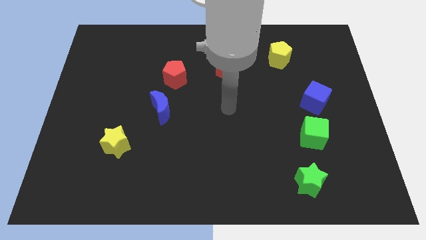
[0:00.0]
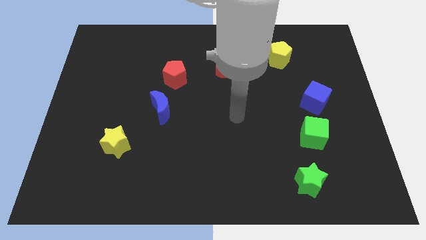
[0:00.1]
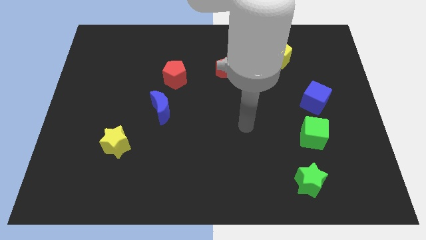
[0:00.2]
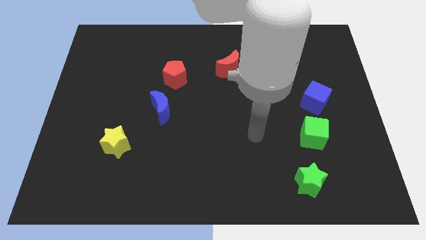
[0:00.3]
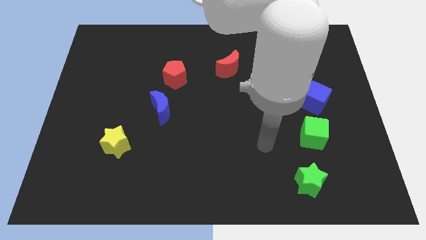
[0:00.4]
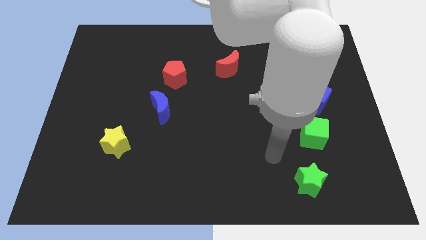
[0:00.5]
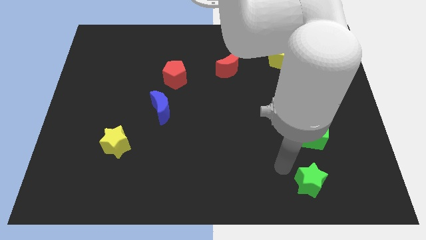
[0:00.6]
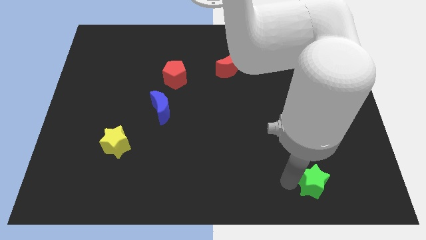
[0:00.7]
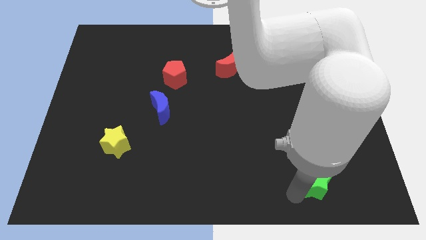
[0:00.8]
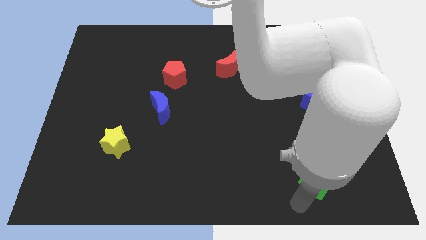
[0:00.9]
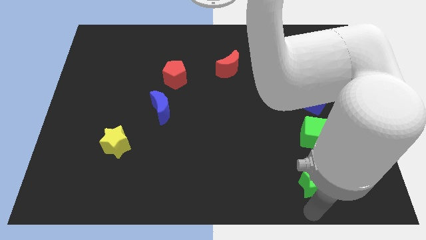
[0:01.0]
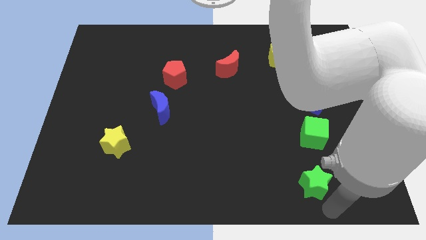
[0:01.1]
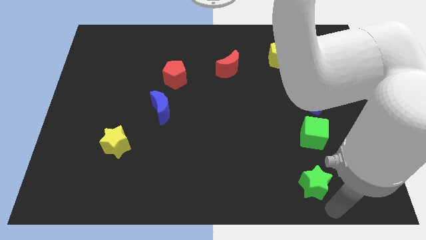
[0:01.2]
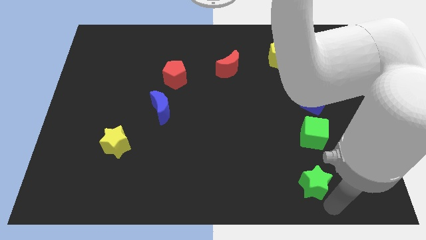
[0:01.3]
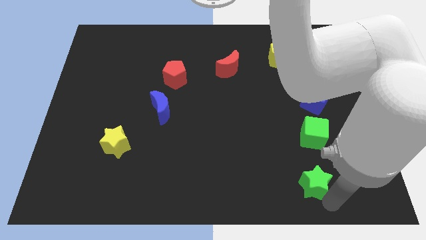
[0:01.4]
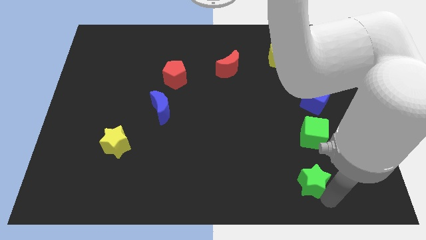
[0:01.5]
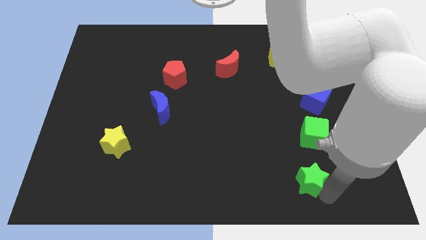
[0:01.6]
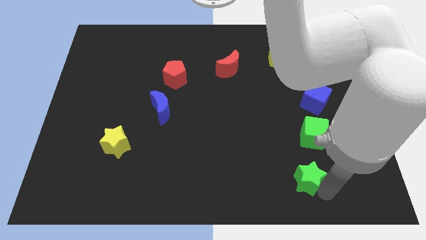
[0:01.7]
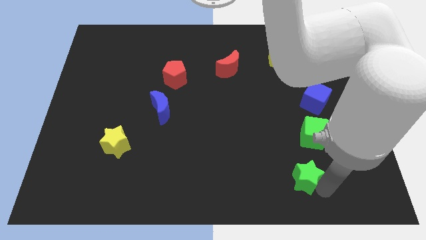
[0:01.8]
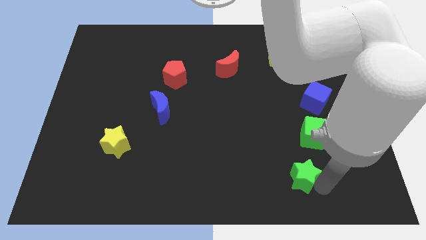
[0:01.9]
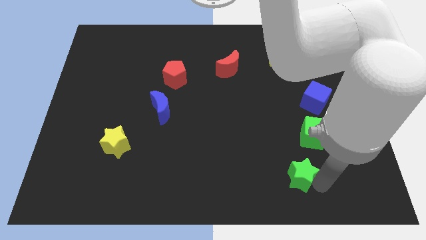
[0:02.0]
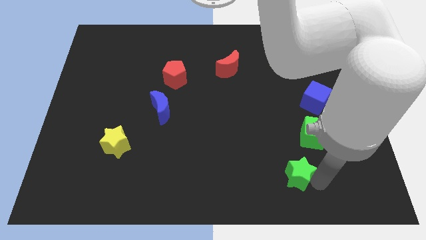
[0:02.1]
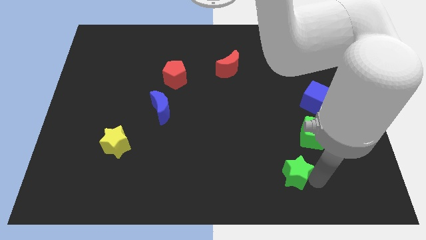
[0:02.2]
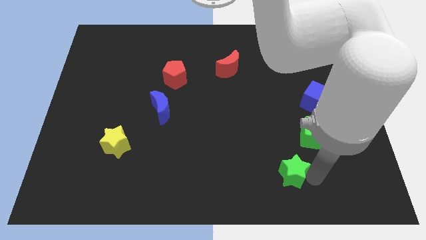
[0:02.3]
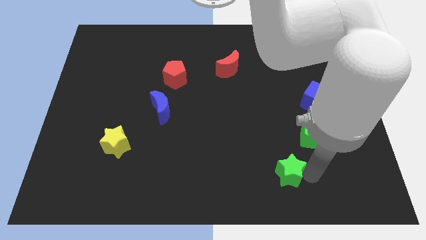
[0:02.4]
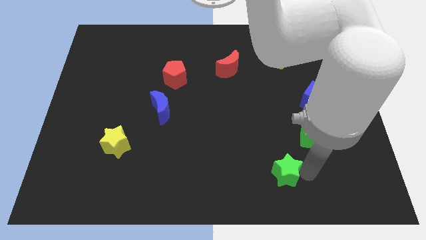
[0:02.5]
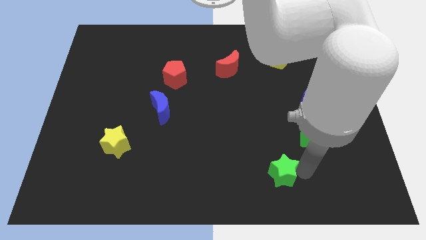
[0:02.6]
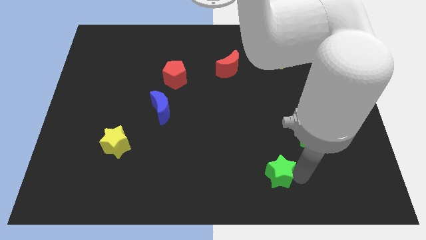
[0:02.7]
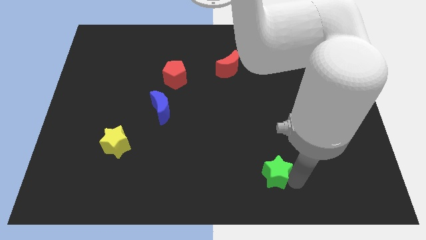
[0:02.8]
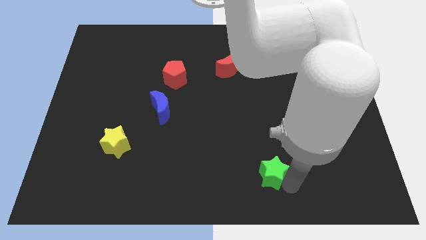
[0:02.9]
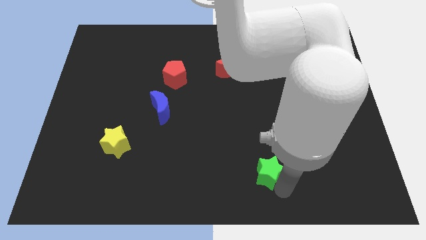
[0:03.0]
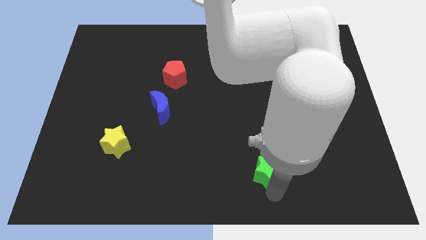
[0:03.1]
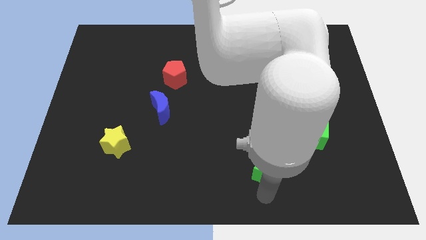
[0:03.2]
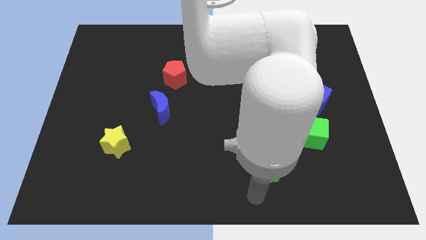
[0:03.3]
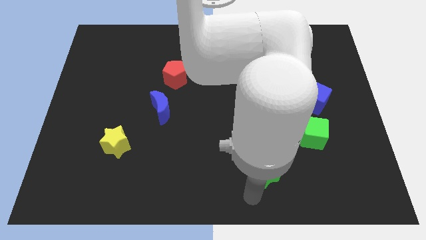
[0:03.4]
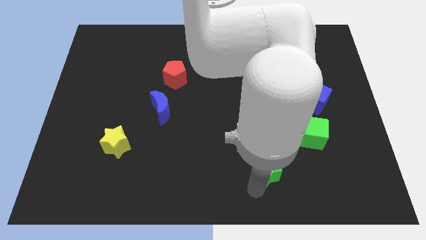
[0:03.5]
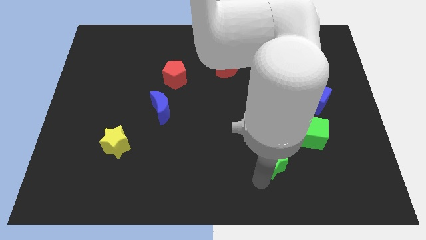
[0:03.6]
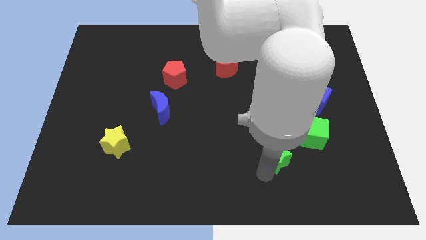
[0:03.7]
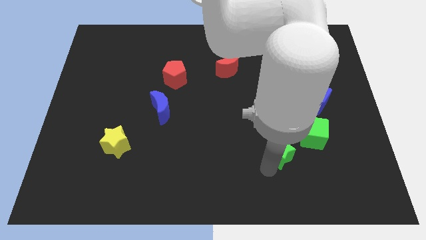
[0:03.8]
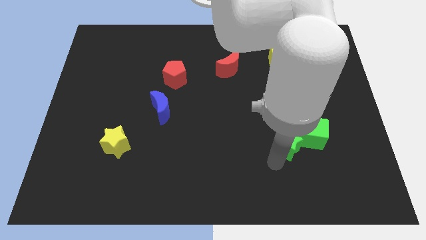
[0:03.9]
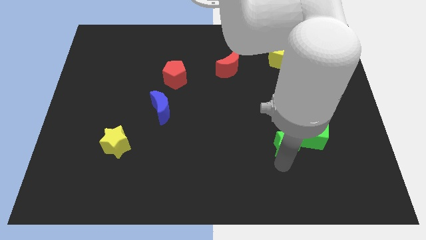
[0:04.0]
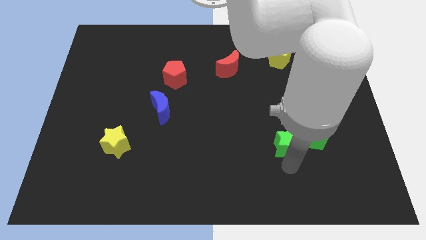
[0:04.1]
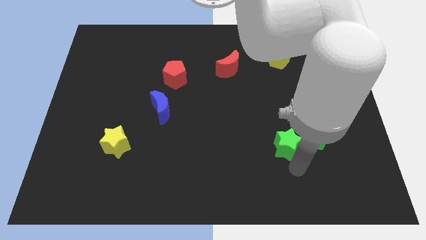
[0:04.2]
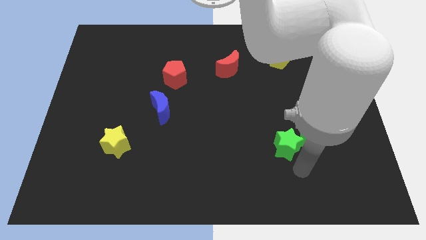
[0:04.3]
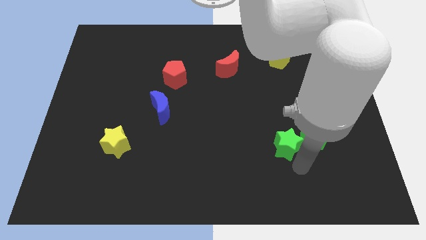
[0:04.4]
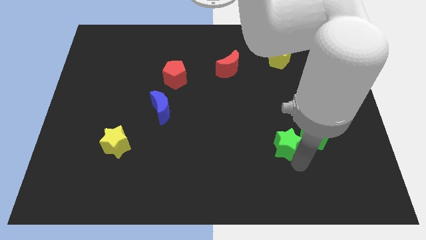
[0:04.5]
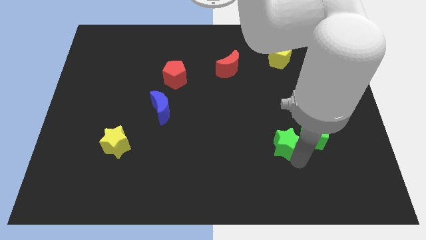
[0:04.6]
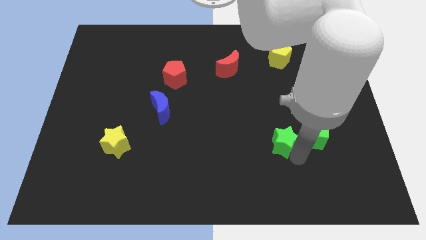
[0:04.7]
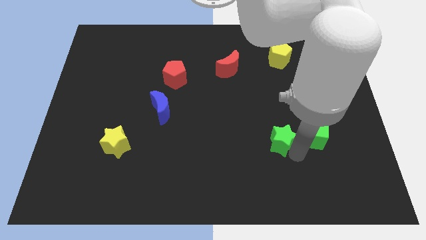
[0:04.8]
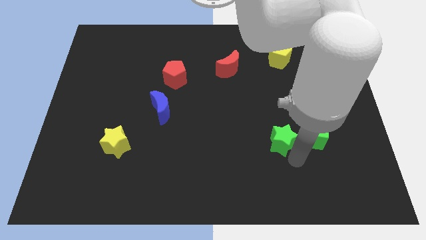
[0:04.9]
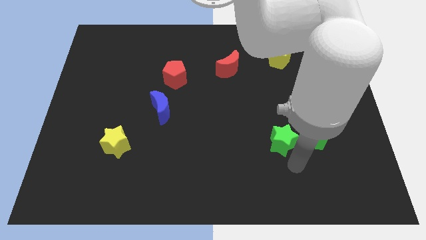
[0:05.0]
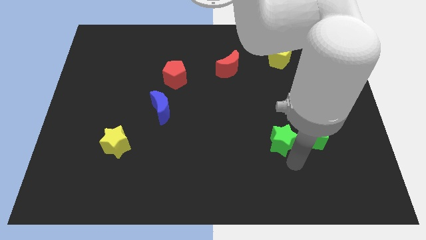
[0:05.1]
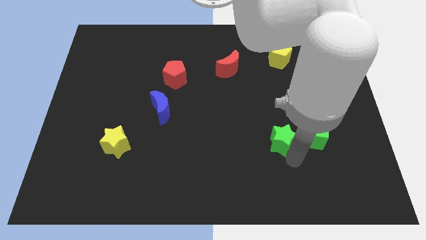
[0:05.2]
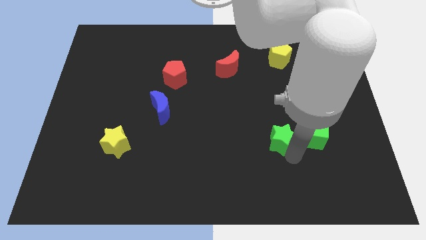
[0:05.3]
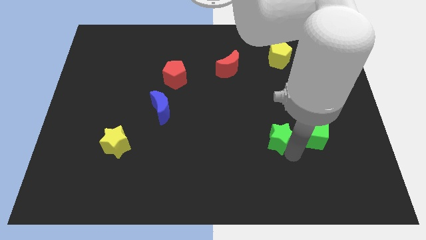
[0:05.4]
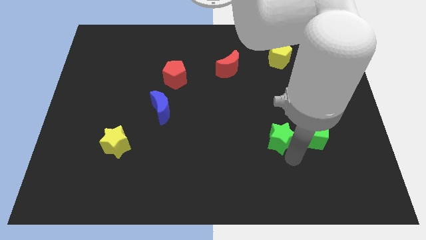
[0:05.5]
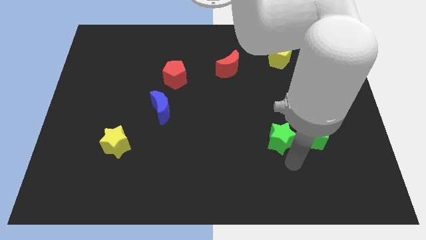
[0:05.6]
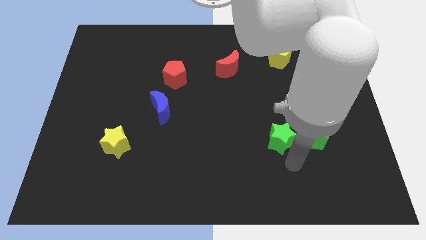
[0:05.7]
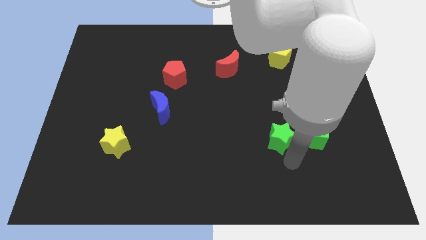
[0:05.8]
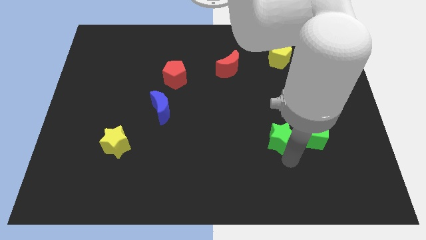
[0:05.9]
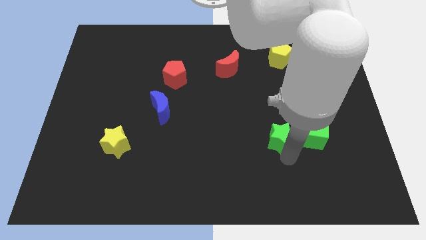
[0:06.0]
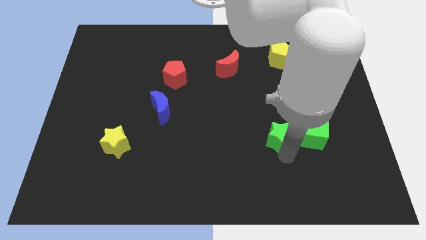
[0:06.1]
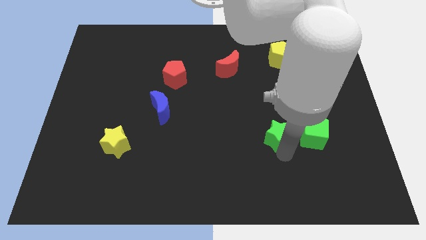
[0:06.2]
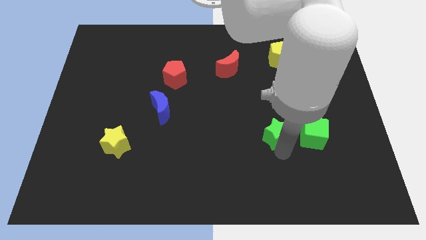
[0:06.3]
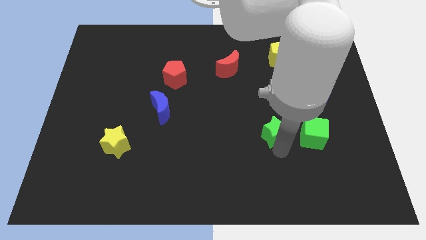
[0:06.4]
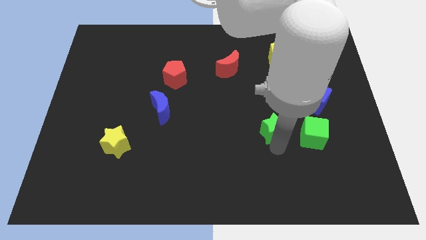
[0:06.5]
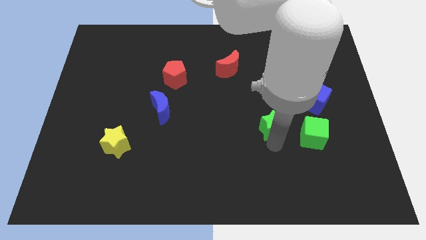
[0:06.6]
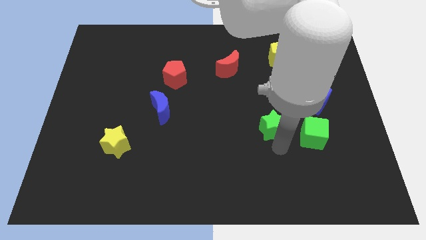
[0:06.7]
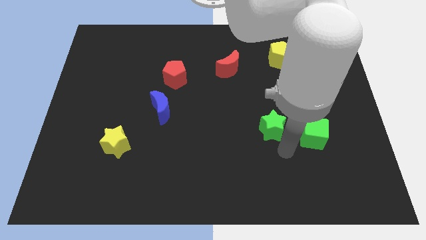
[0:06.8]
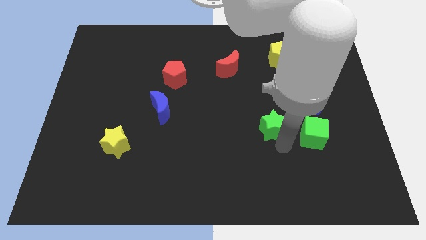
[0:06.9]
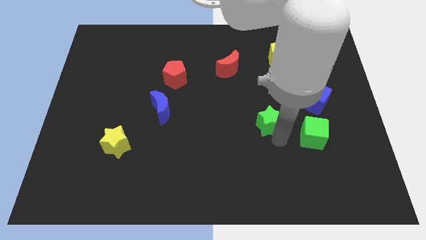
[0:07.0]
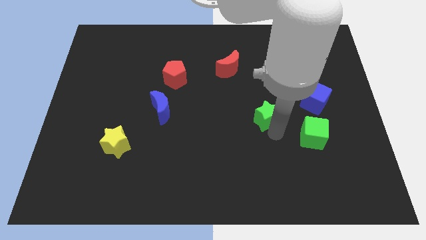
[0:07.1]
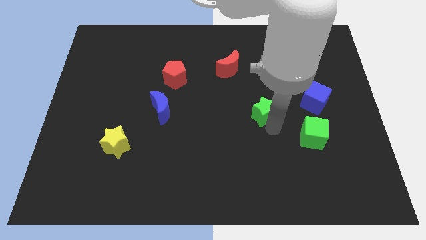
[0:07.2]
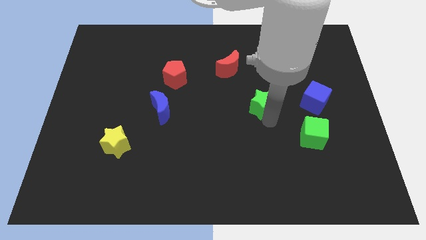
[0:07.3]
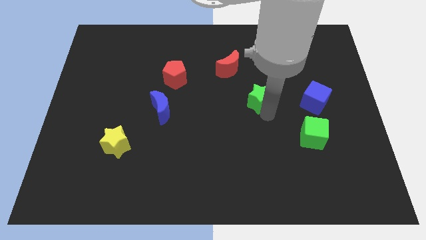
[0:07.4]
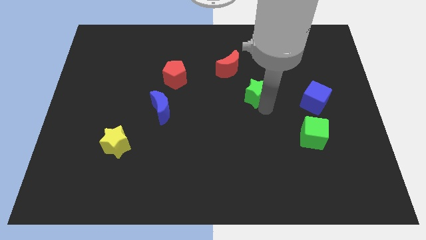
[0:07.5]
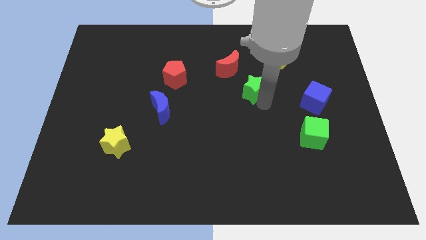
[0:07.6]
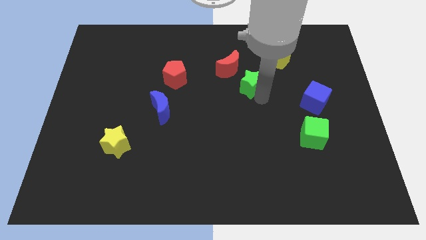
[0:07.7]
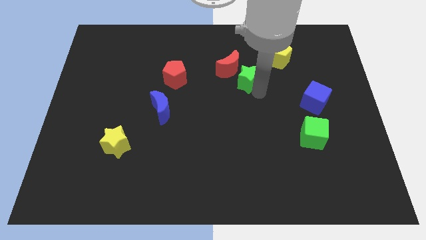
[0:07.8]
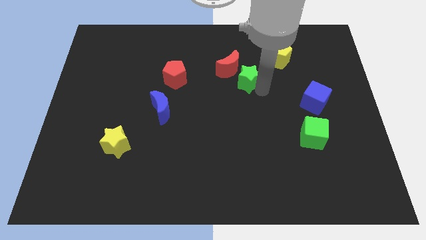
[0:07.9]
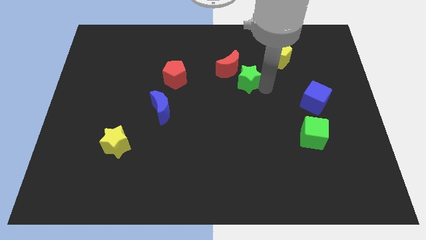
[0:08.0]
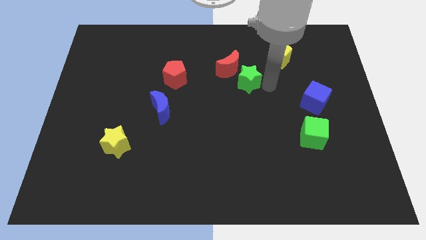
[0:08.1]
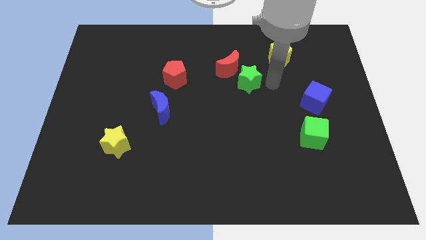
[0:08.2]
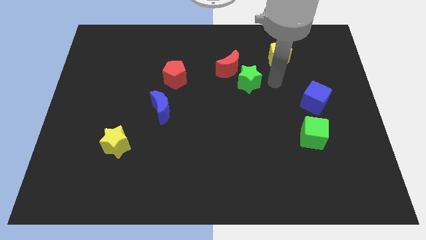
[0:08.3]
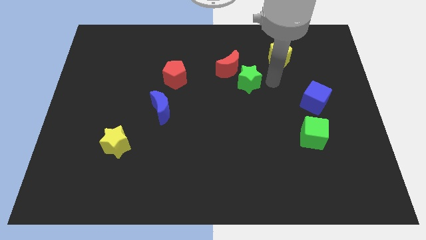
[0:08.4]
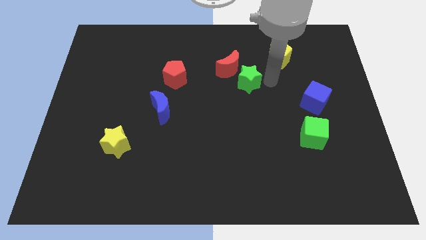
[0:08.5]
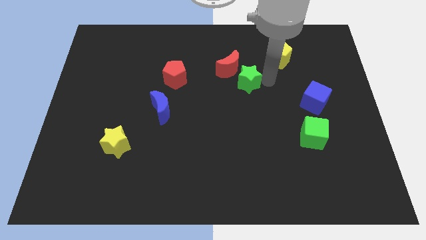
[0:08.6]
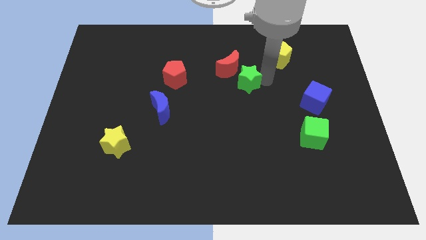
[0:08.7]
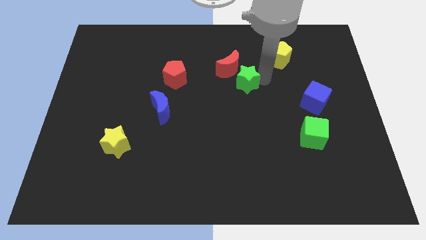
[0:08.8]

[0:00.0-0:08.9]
put the green star close to the red moon
